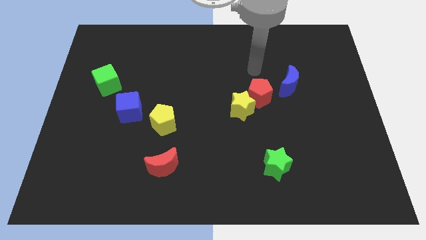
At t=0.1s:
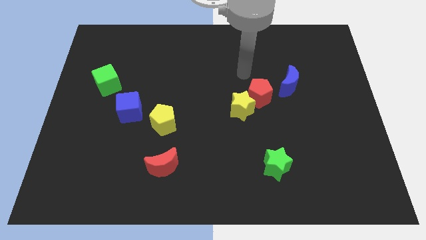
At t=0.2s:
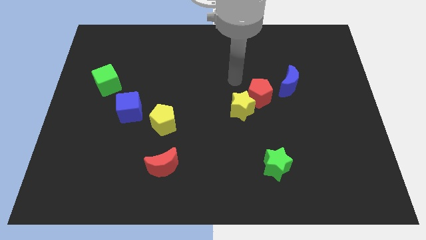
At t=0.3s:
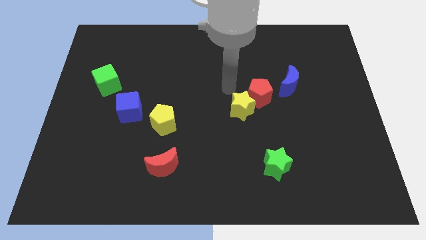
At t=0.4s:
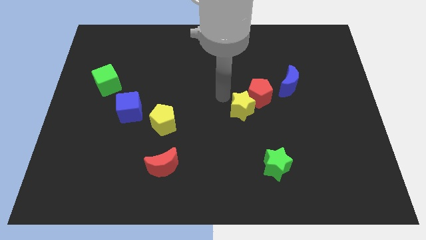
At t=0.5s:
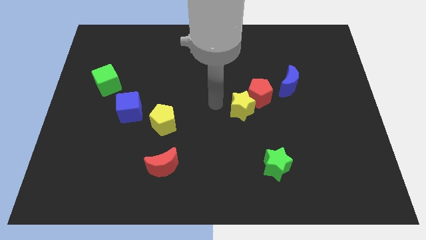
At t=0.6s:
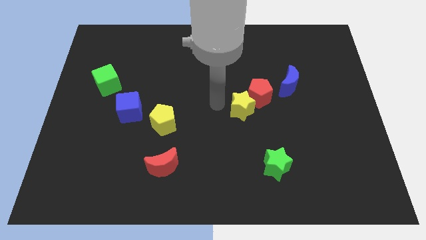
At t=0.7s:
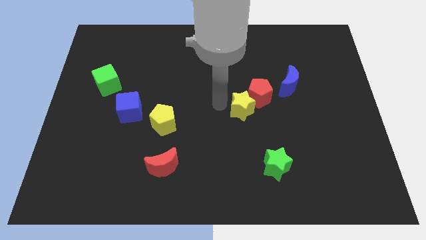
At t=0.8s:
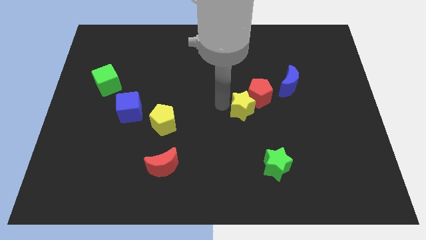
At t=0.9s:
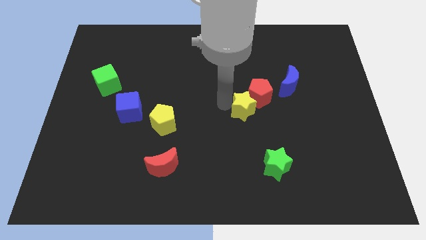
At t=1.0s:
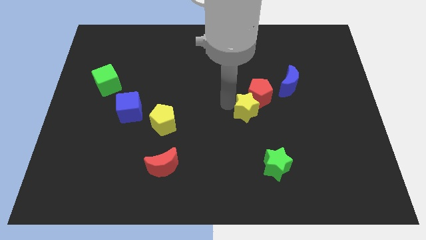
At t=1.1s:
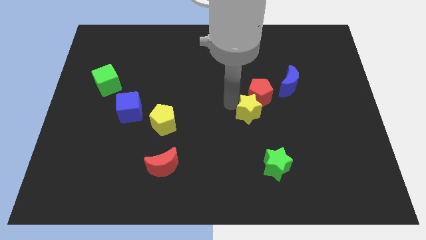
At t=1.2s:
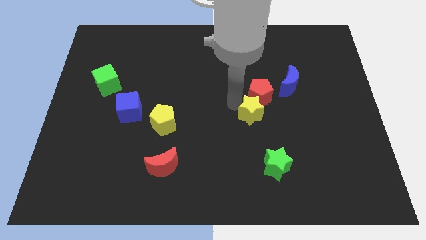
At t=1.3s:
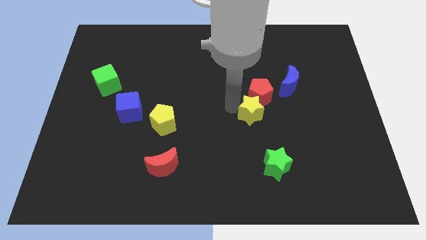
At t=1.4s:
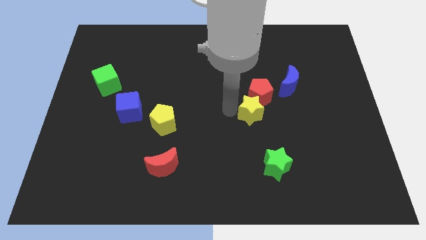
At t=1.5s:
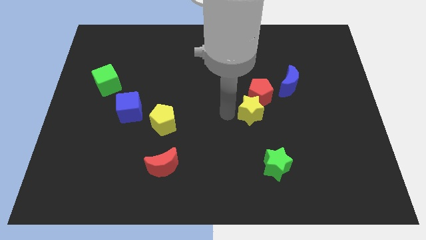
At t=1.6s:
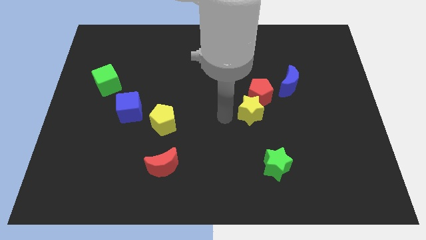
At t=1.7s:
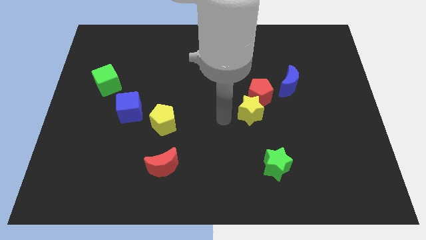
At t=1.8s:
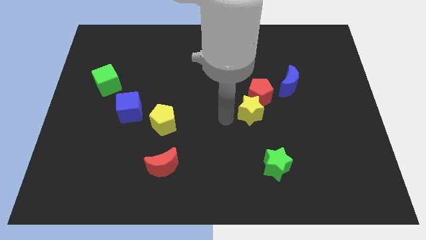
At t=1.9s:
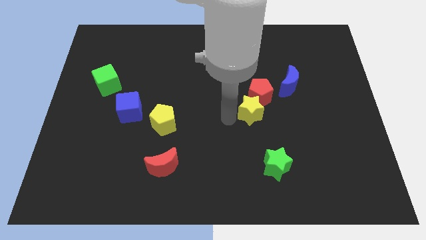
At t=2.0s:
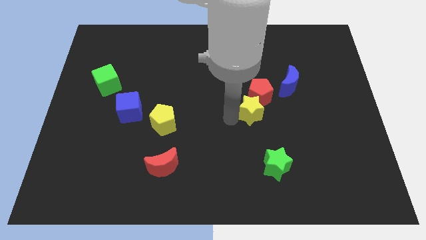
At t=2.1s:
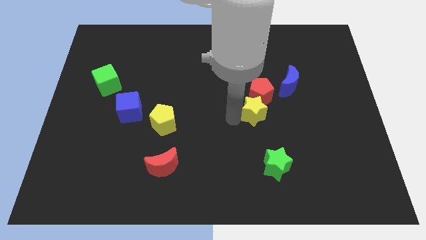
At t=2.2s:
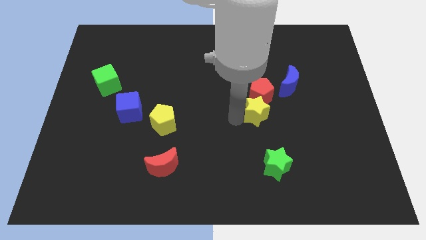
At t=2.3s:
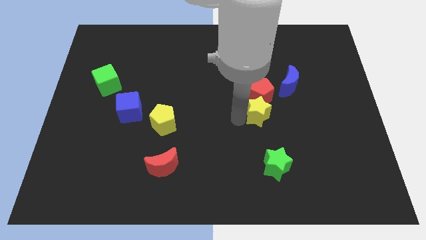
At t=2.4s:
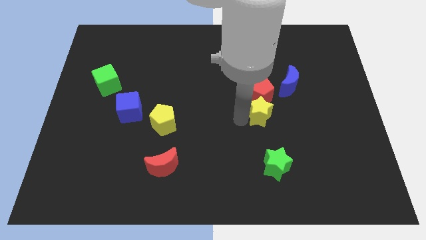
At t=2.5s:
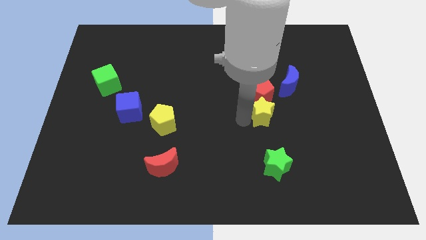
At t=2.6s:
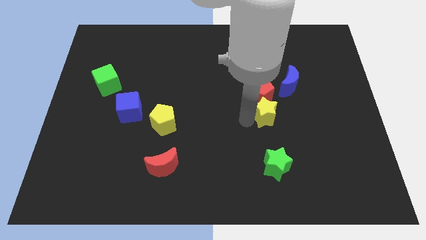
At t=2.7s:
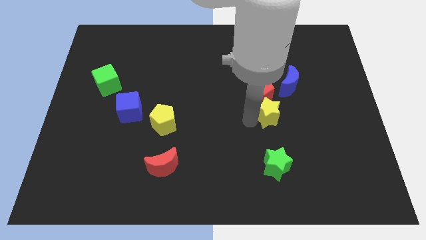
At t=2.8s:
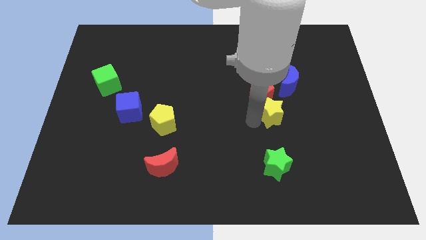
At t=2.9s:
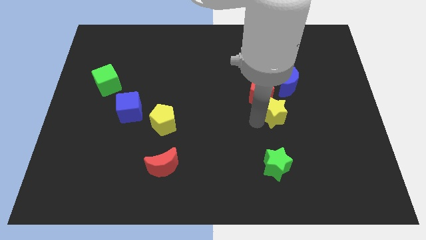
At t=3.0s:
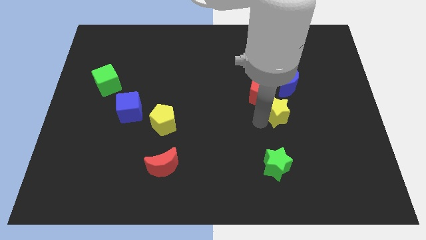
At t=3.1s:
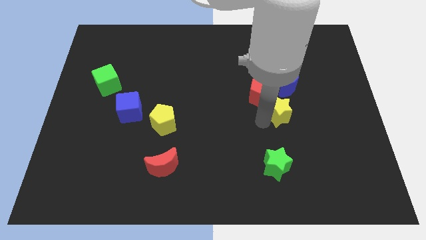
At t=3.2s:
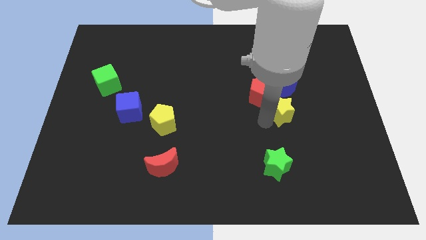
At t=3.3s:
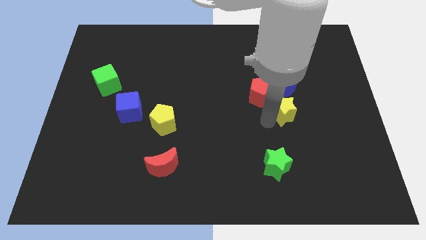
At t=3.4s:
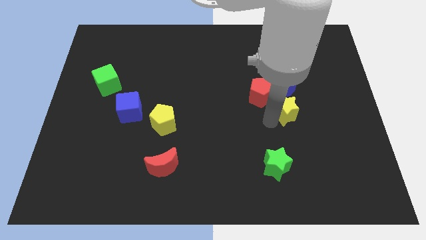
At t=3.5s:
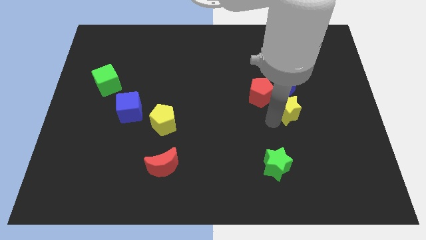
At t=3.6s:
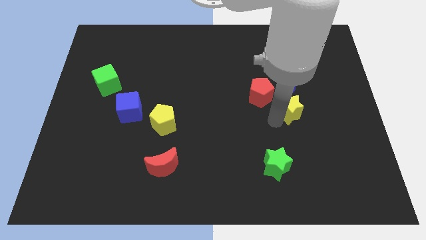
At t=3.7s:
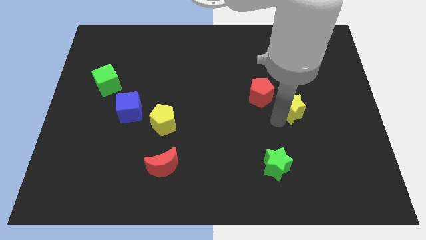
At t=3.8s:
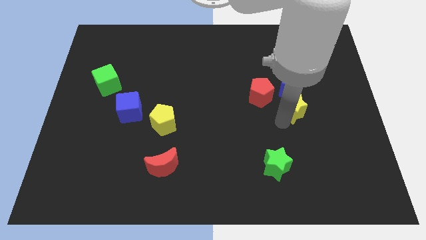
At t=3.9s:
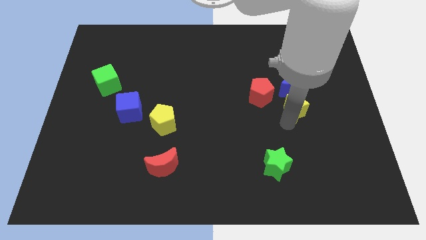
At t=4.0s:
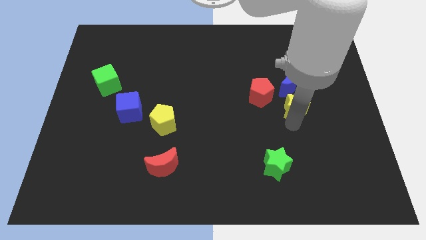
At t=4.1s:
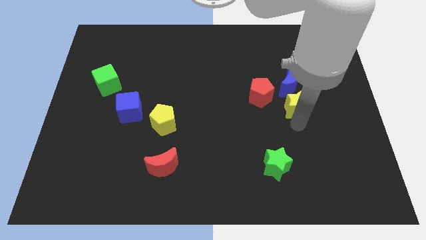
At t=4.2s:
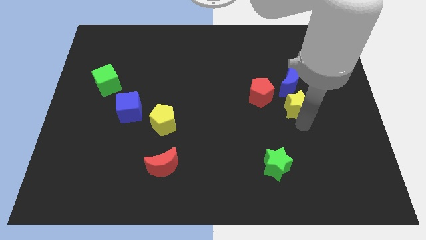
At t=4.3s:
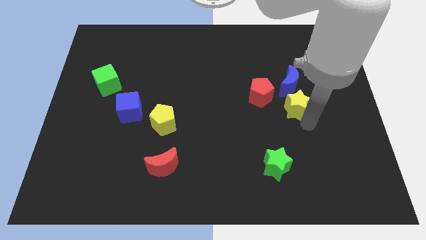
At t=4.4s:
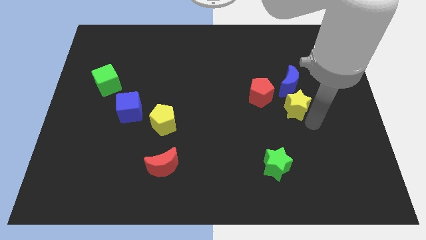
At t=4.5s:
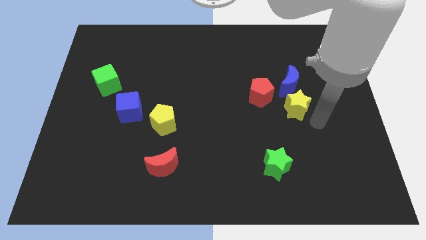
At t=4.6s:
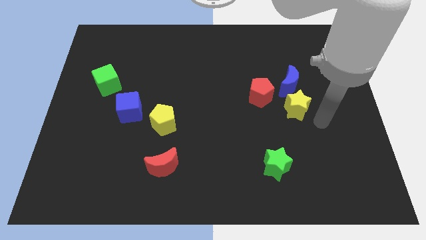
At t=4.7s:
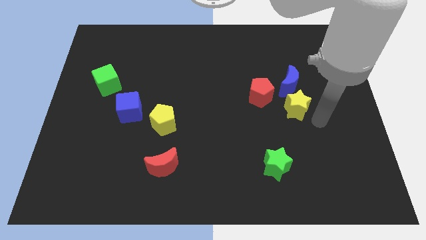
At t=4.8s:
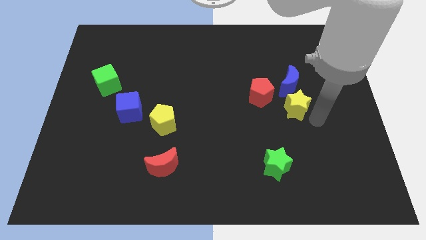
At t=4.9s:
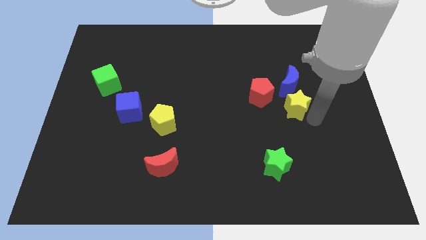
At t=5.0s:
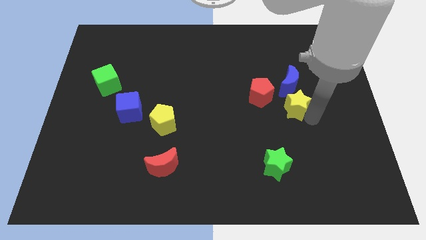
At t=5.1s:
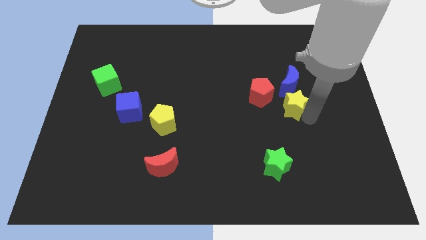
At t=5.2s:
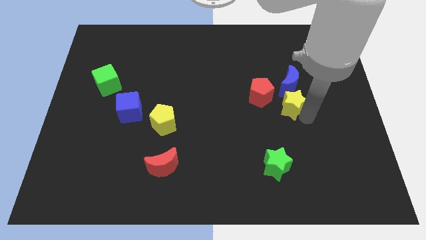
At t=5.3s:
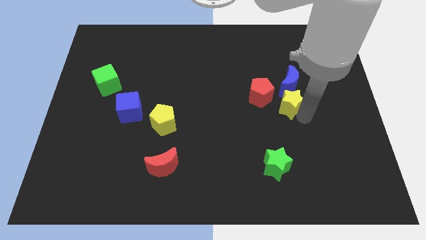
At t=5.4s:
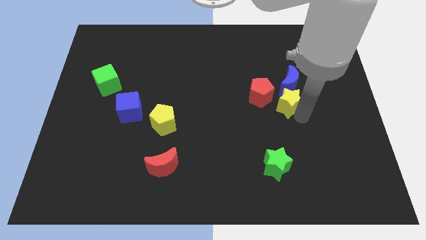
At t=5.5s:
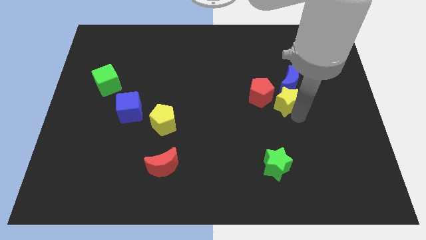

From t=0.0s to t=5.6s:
put the yellow star close to the blue moon

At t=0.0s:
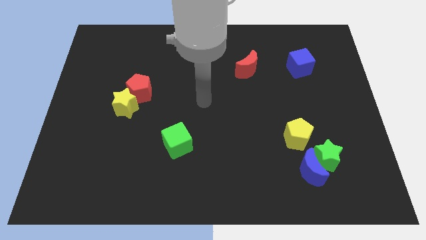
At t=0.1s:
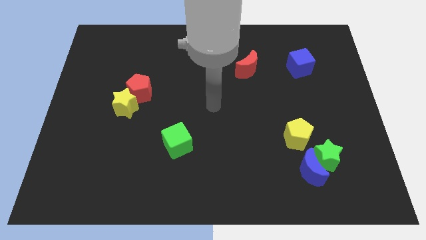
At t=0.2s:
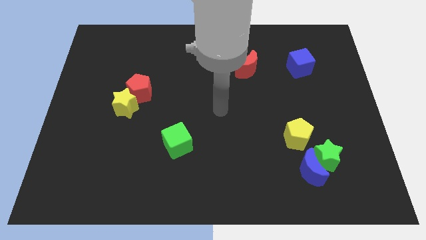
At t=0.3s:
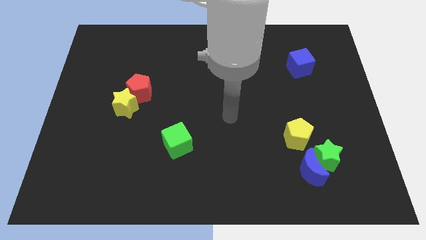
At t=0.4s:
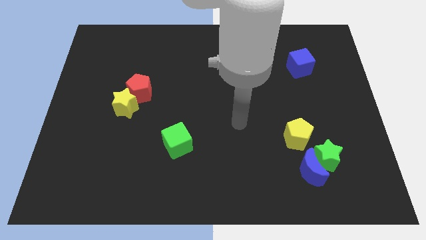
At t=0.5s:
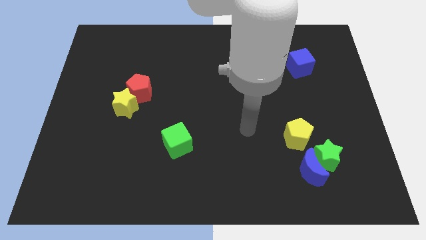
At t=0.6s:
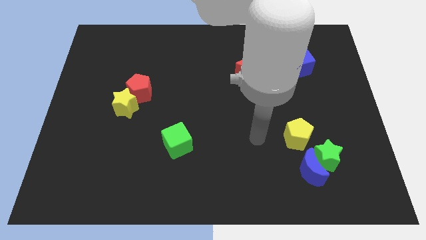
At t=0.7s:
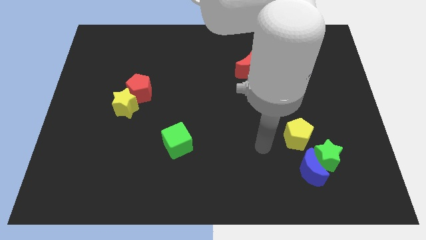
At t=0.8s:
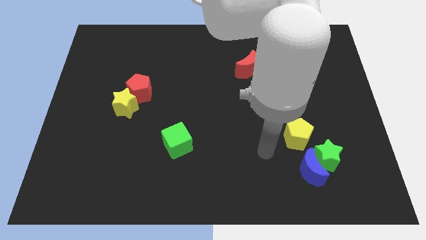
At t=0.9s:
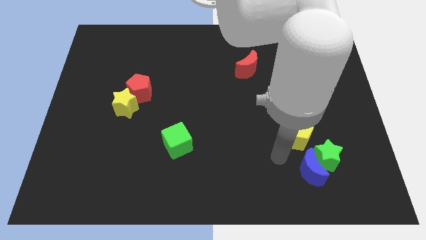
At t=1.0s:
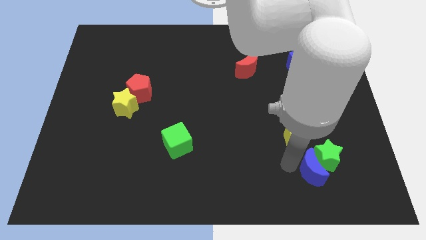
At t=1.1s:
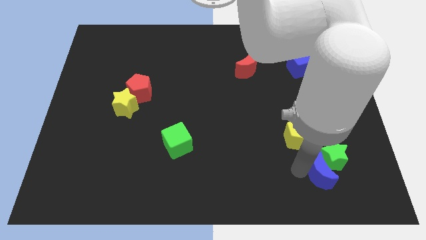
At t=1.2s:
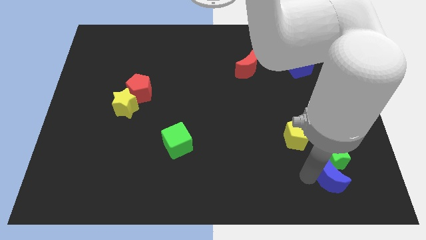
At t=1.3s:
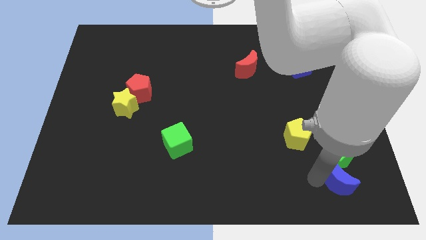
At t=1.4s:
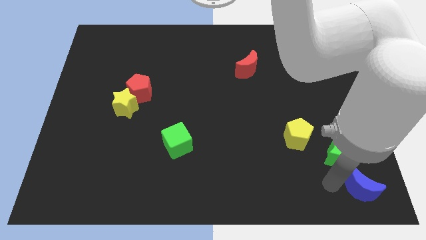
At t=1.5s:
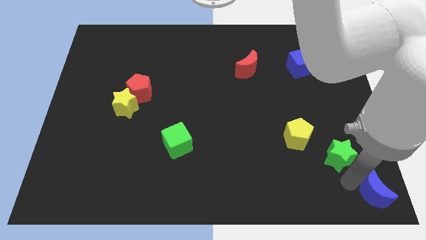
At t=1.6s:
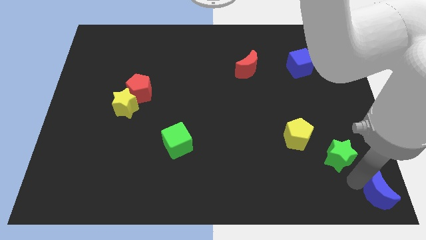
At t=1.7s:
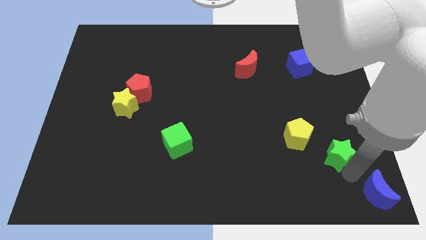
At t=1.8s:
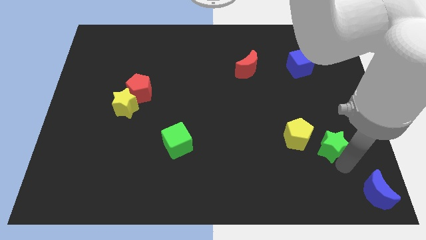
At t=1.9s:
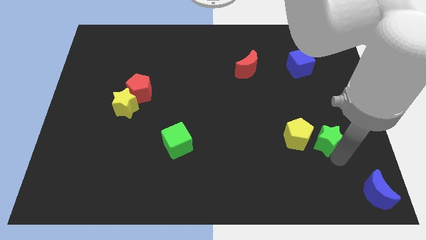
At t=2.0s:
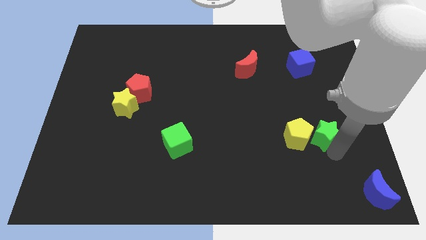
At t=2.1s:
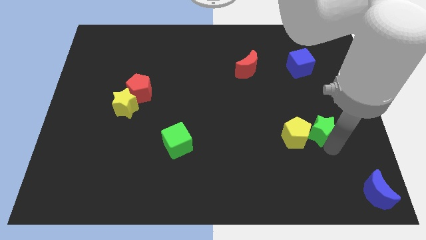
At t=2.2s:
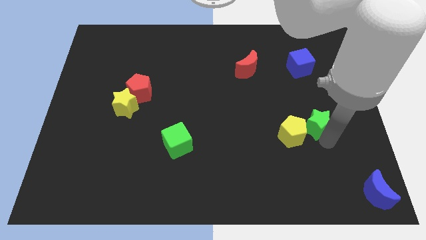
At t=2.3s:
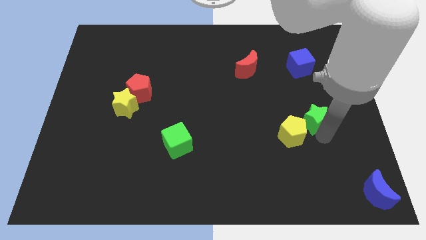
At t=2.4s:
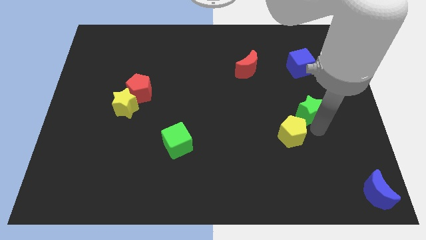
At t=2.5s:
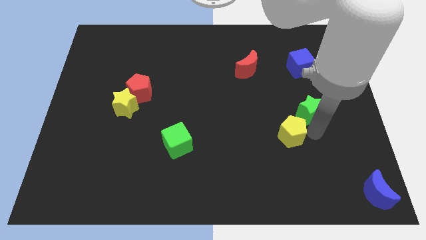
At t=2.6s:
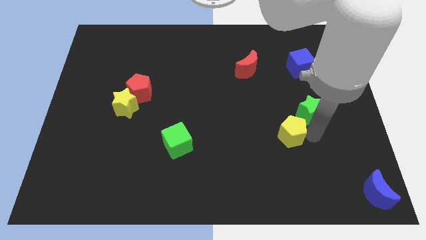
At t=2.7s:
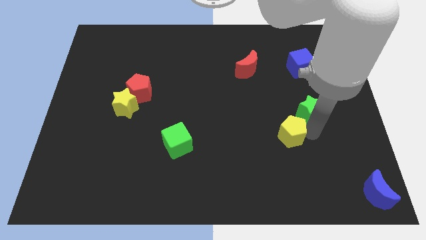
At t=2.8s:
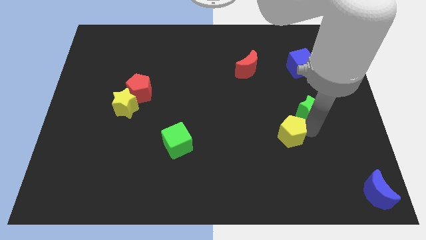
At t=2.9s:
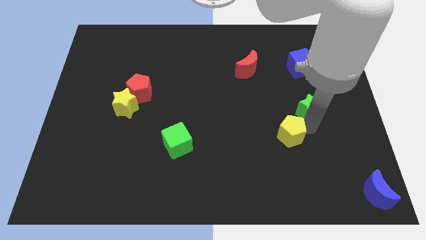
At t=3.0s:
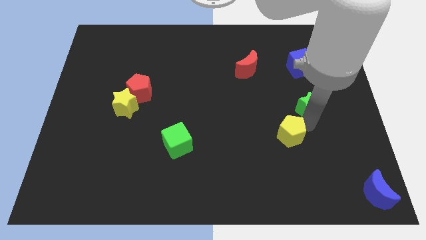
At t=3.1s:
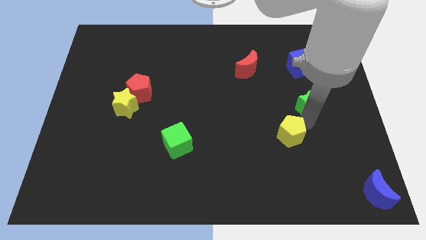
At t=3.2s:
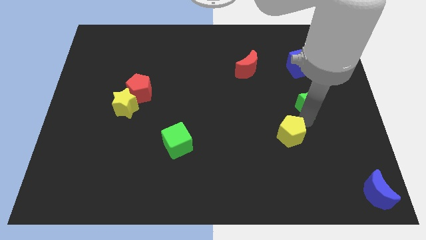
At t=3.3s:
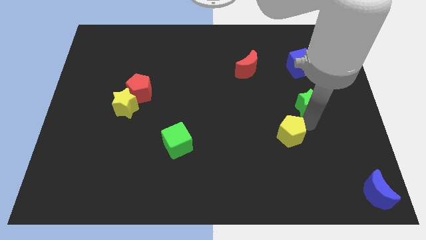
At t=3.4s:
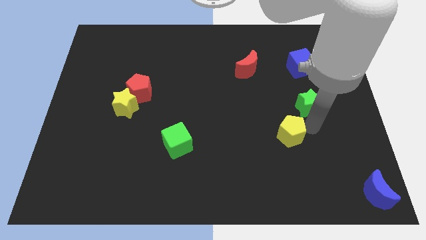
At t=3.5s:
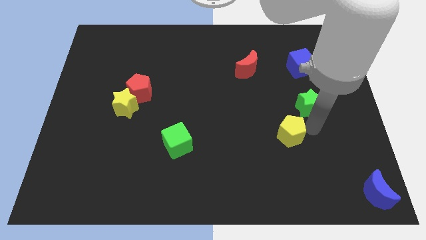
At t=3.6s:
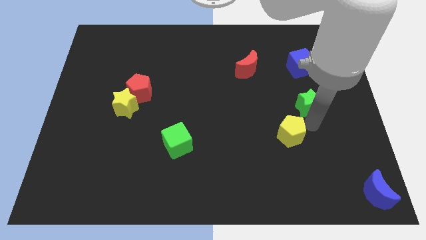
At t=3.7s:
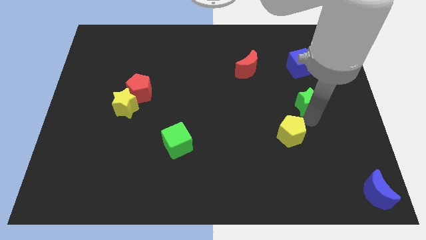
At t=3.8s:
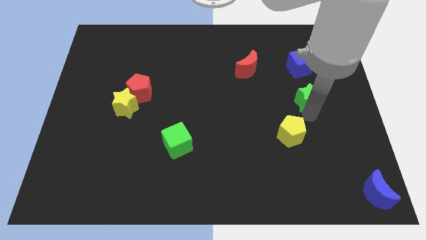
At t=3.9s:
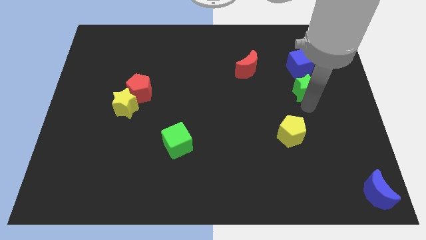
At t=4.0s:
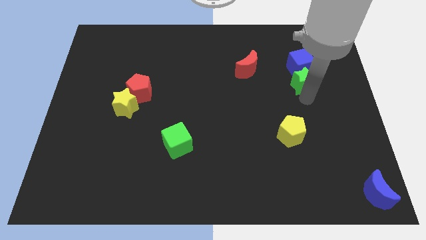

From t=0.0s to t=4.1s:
move the green star to the blue cube
